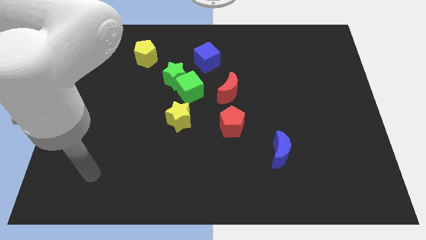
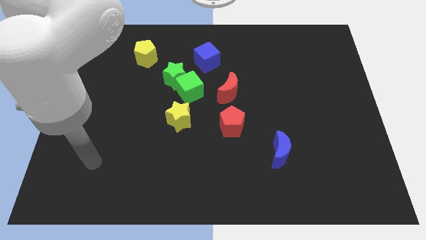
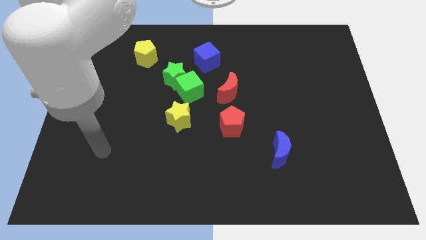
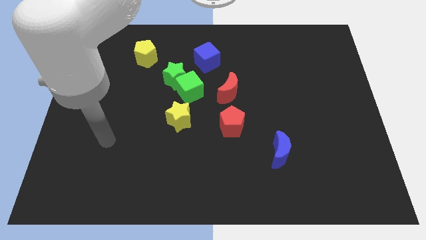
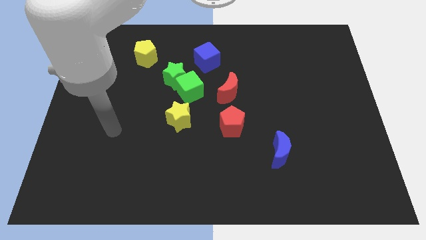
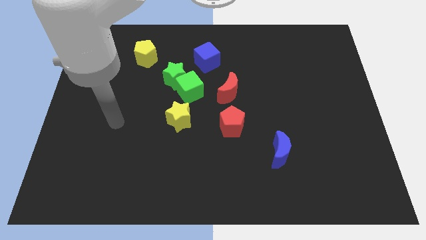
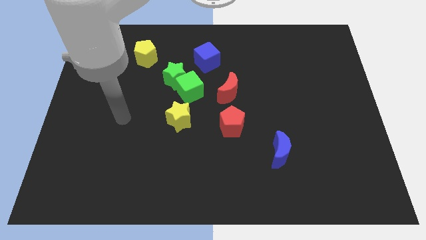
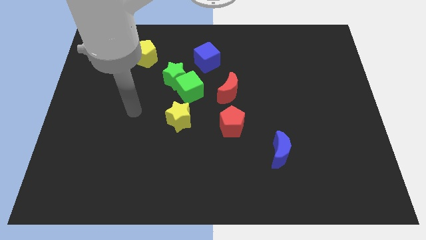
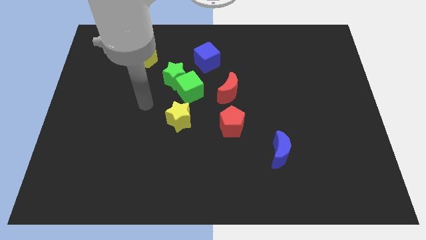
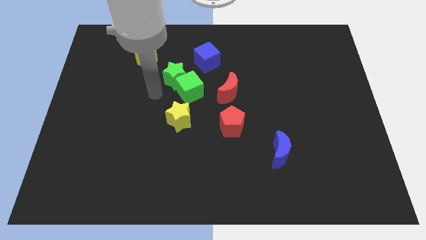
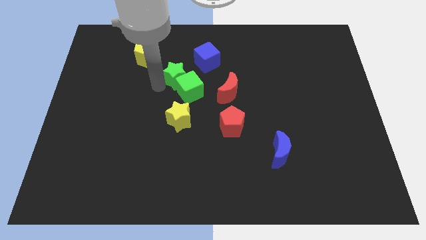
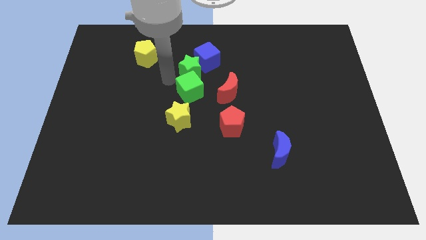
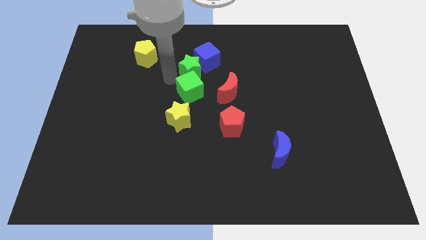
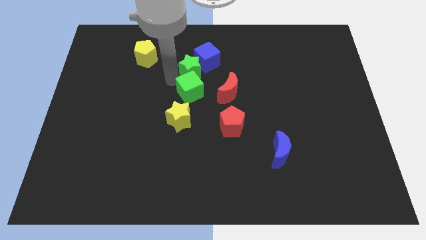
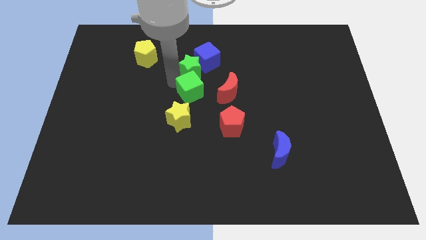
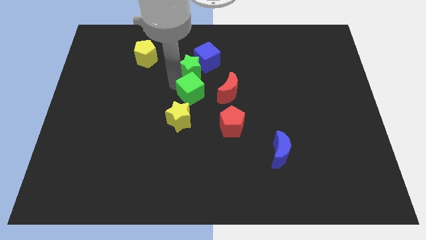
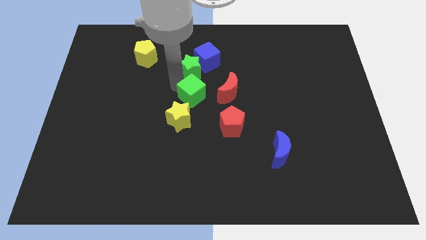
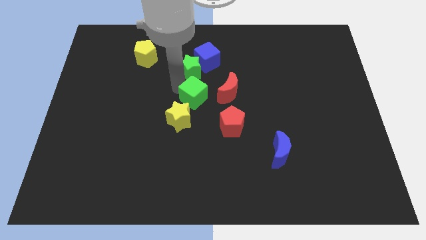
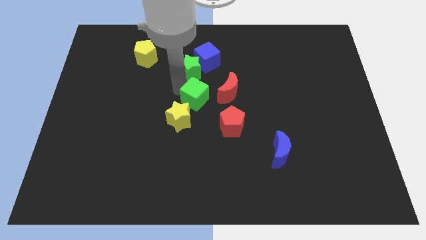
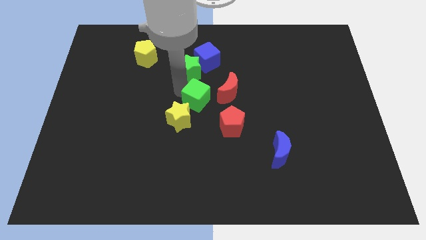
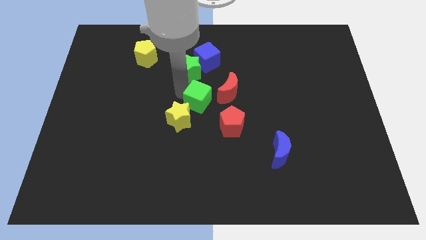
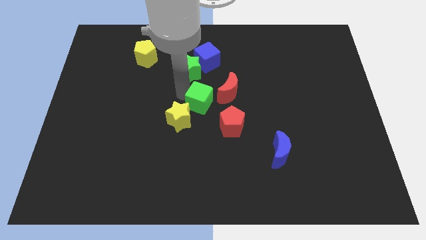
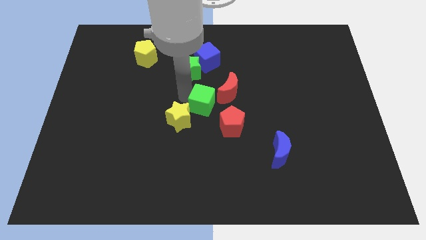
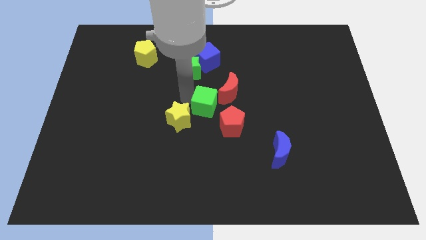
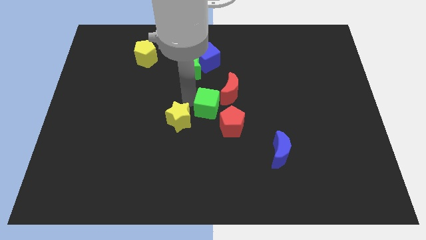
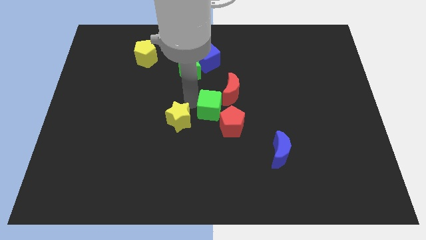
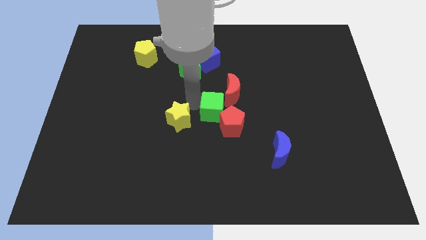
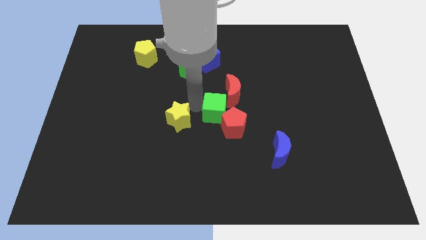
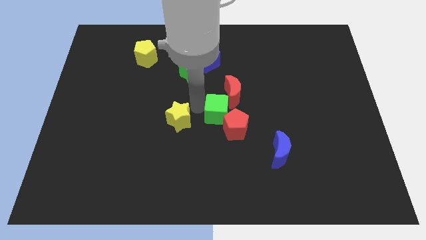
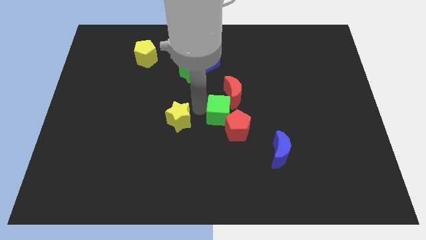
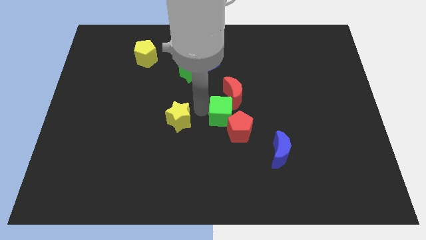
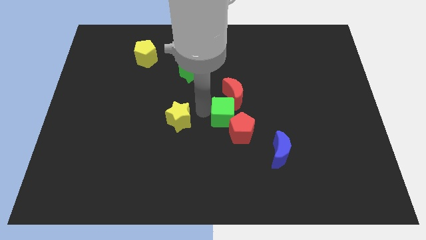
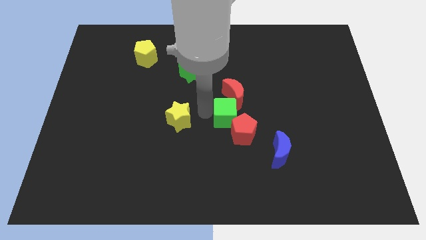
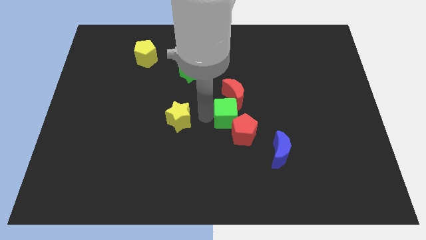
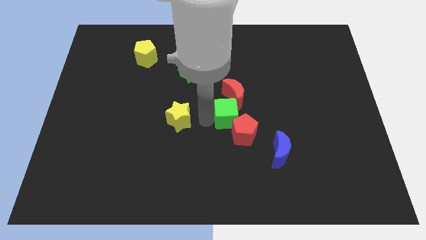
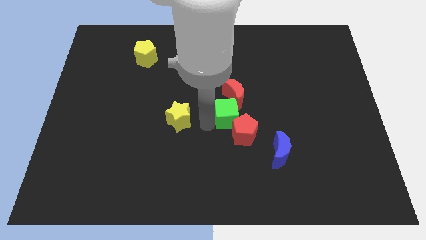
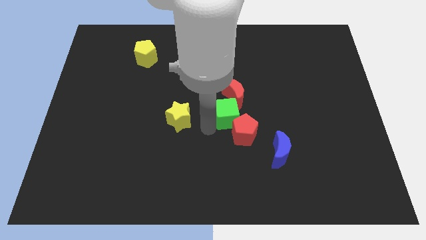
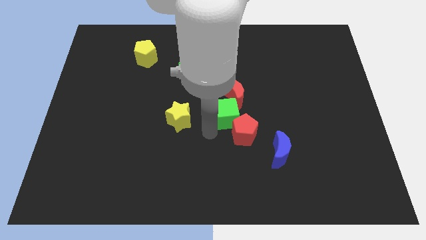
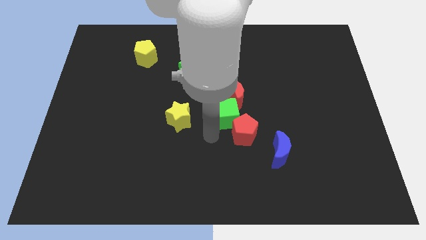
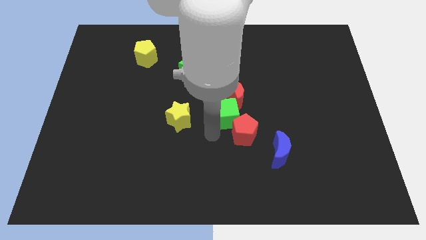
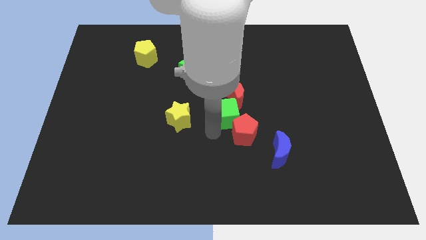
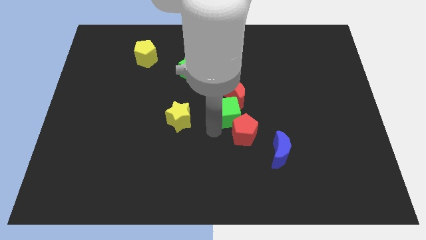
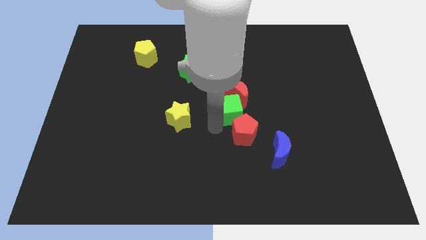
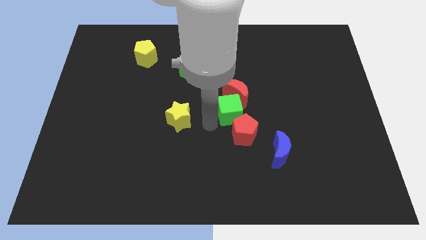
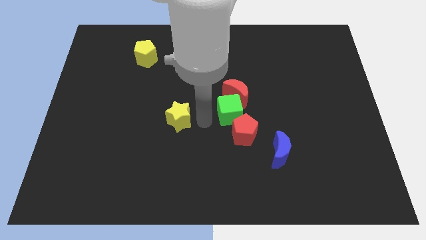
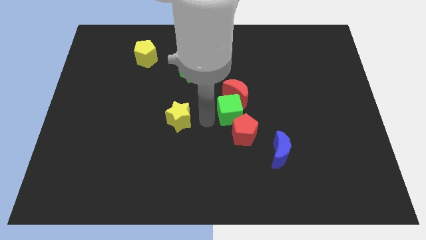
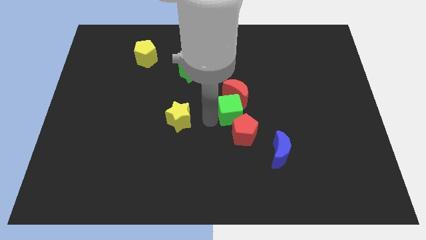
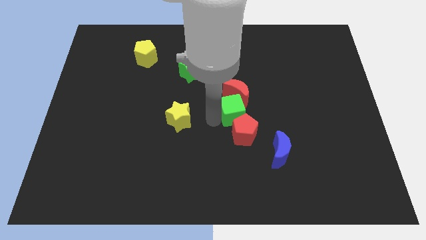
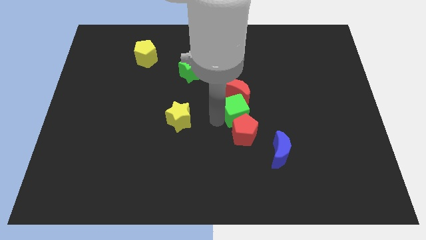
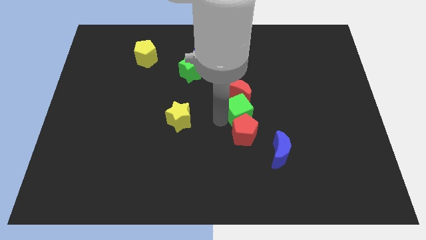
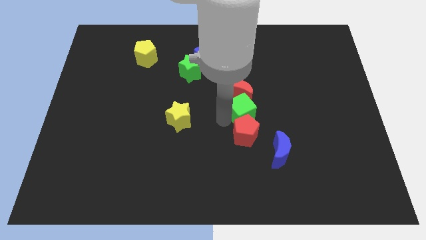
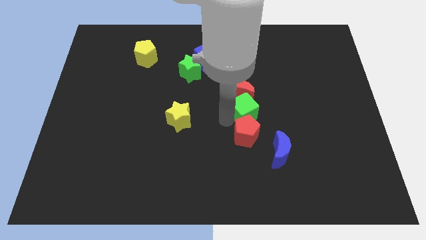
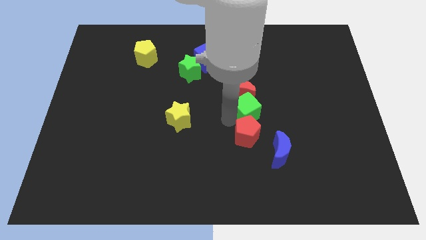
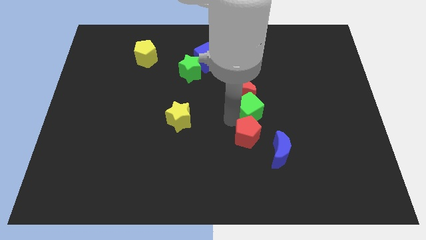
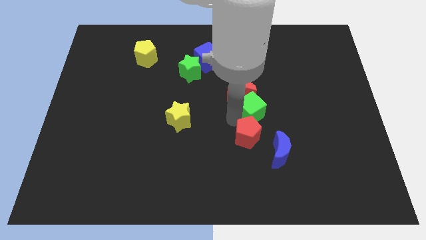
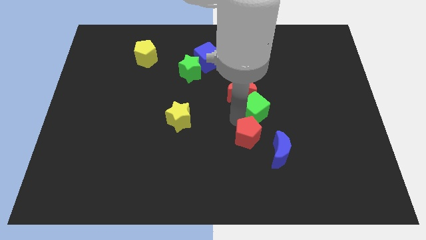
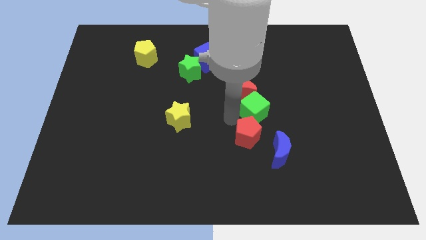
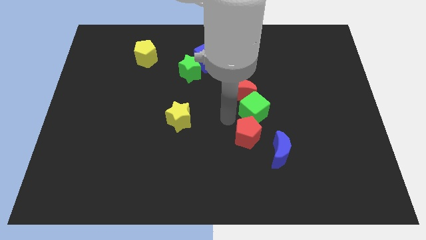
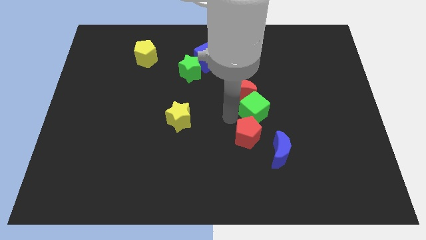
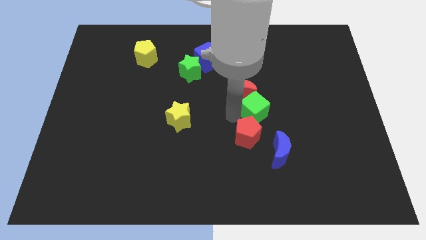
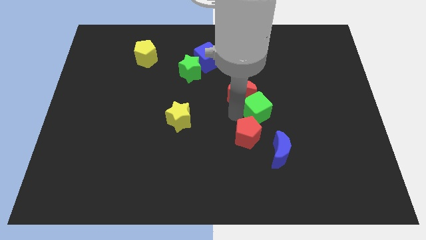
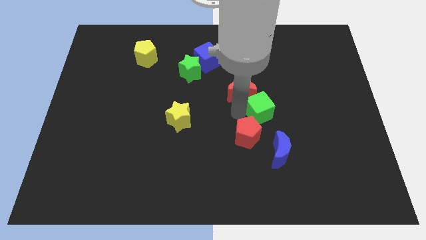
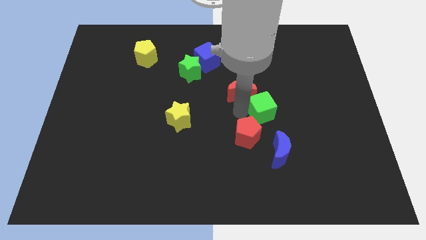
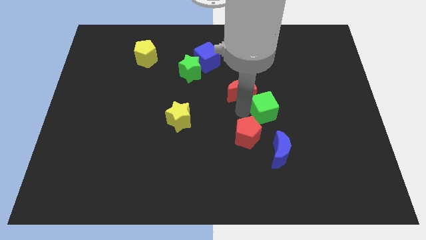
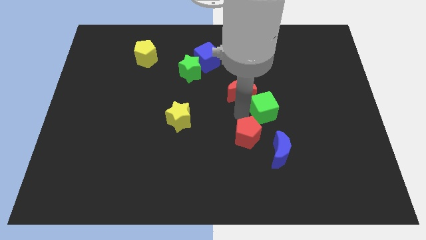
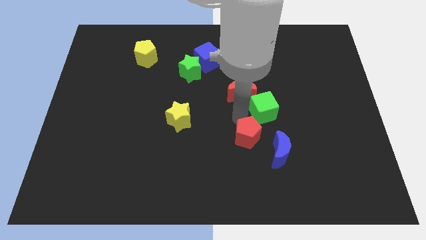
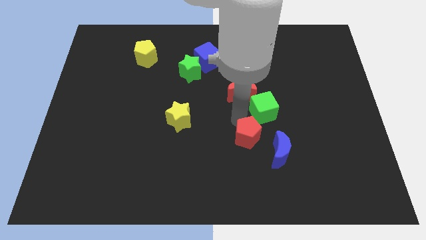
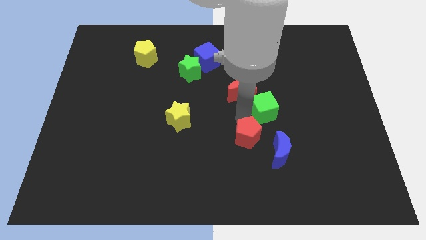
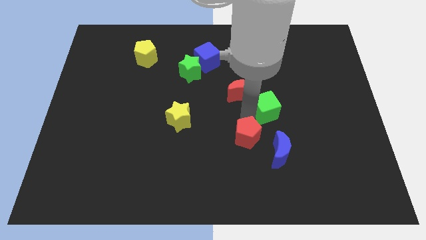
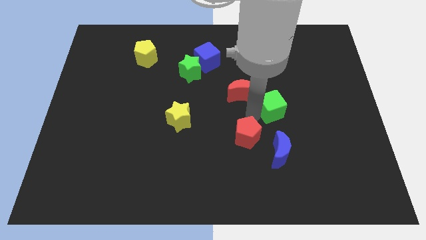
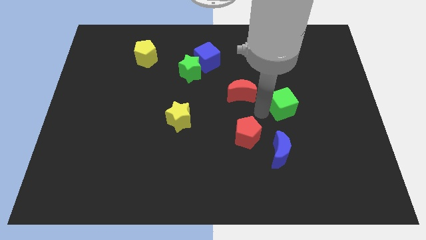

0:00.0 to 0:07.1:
push the green cube right

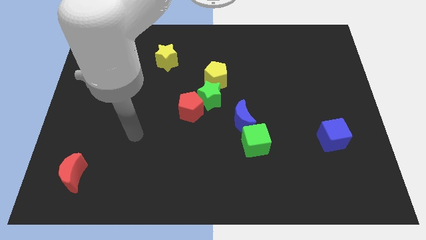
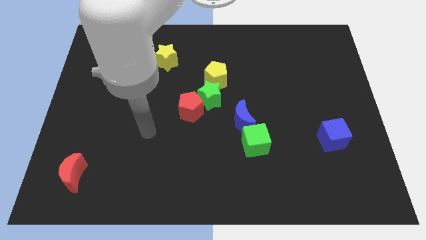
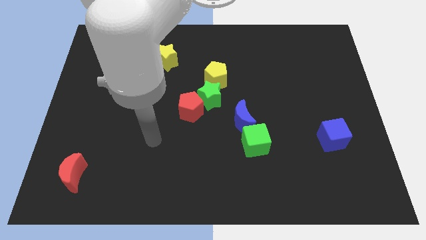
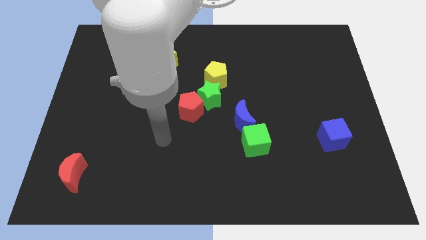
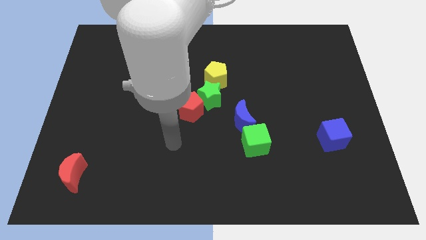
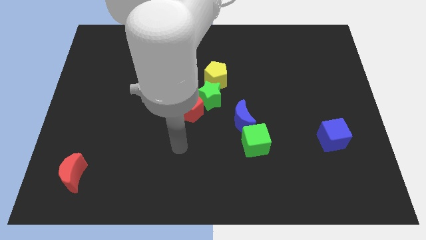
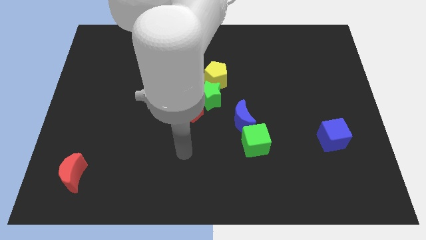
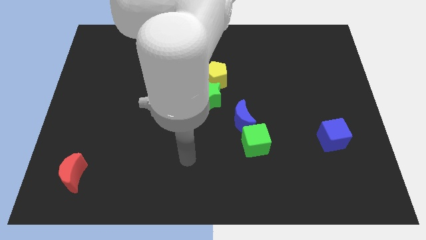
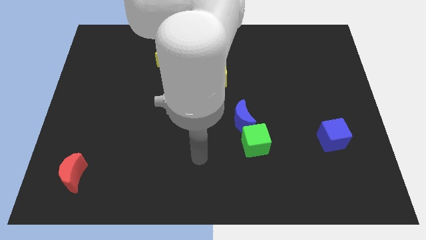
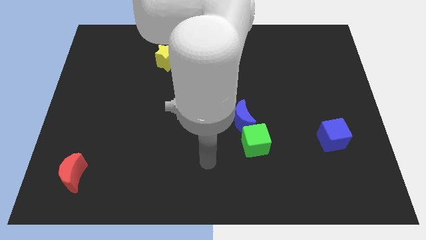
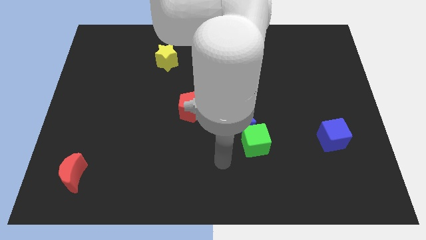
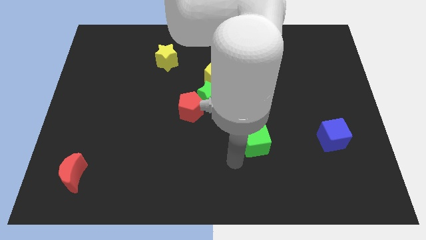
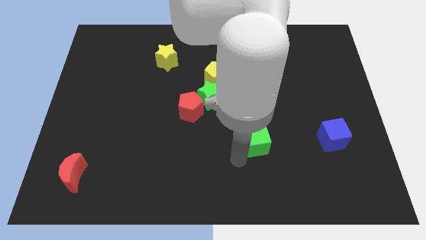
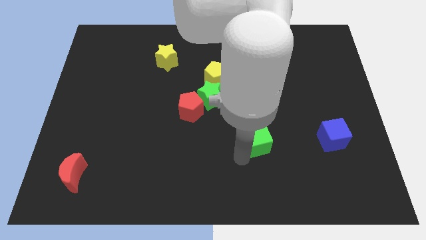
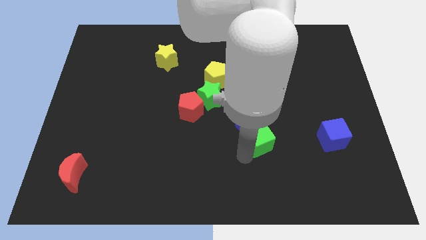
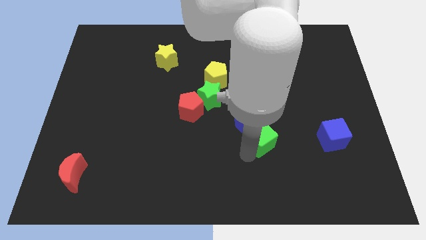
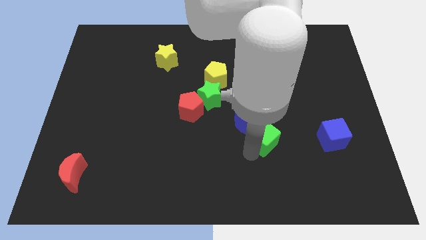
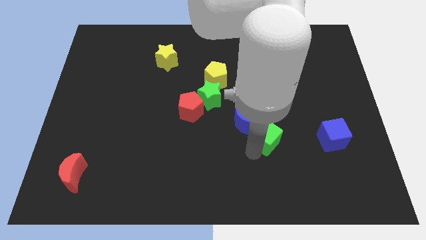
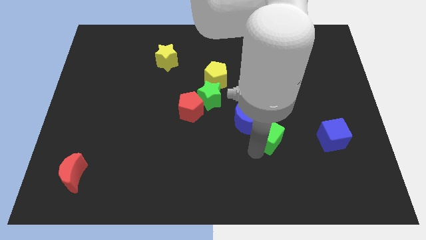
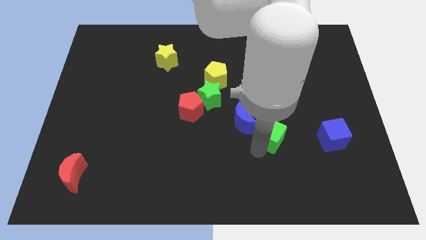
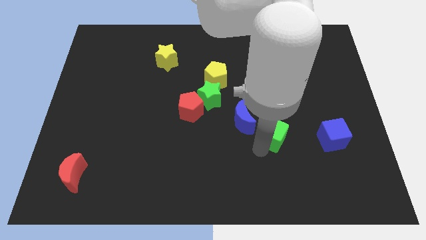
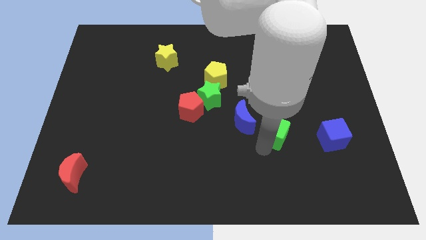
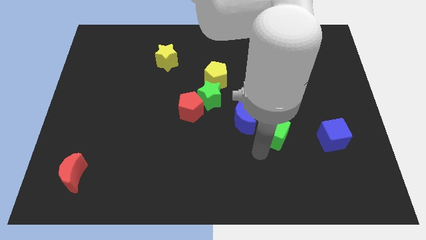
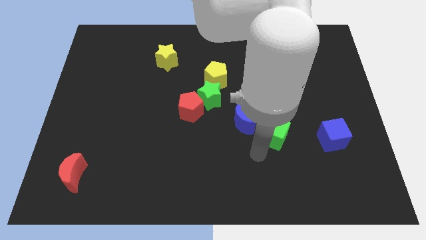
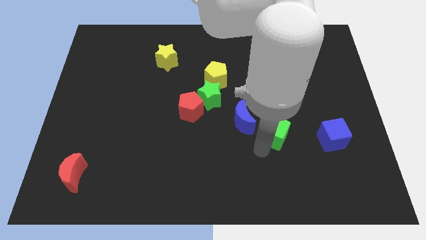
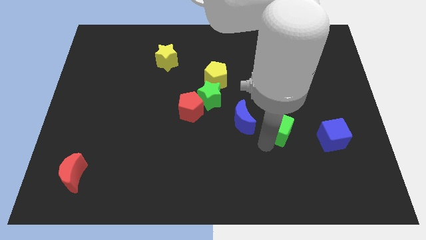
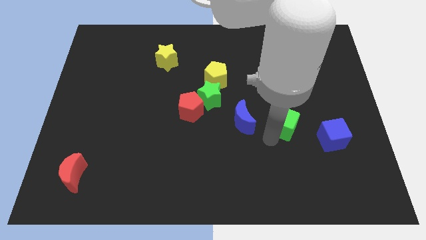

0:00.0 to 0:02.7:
slightly slide the green cube upwards and then right
